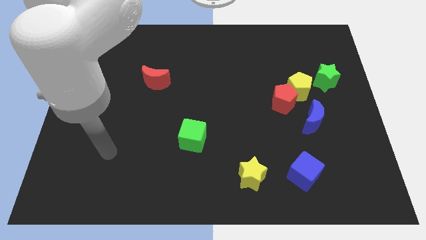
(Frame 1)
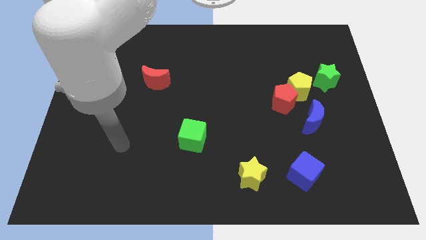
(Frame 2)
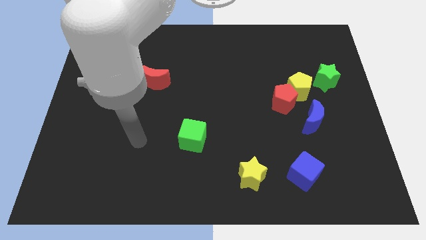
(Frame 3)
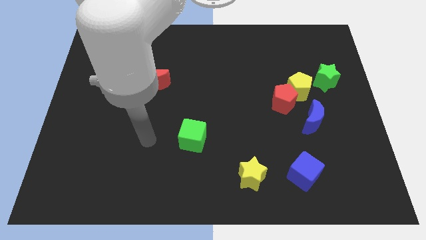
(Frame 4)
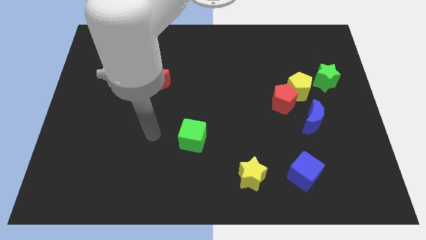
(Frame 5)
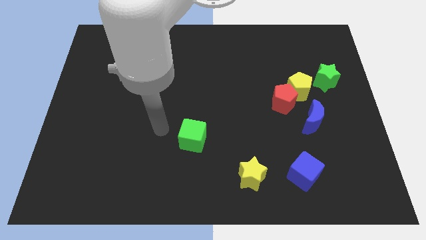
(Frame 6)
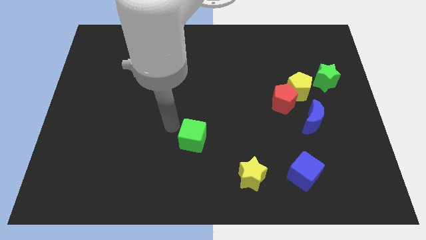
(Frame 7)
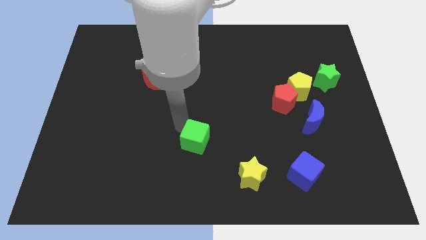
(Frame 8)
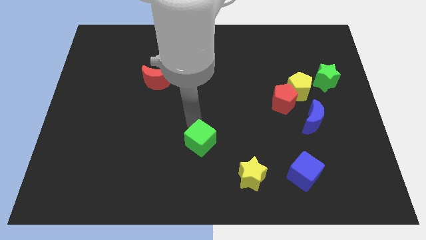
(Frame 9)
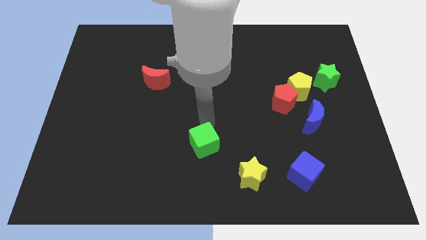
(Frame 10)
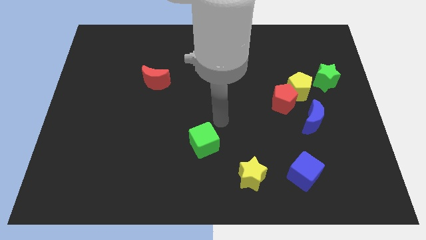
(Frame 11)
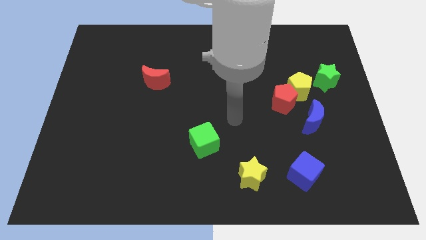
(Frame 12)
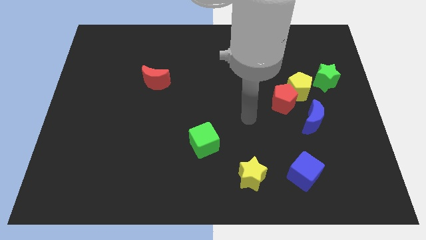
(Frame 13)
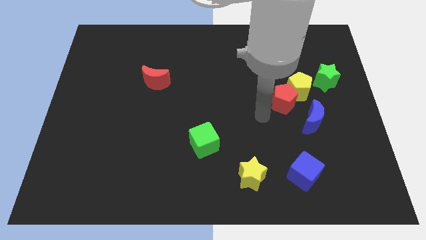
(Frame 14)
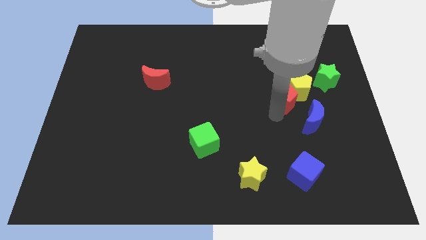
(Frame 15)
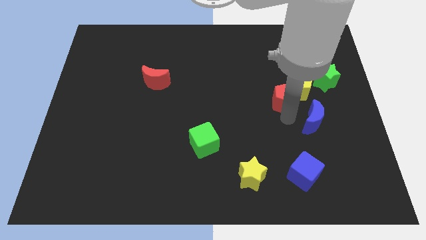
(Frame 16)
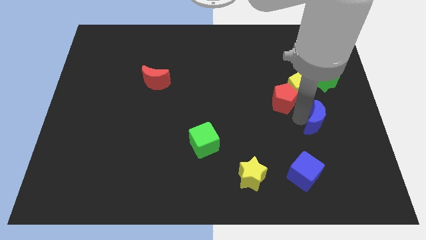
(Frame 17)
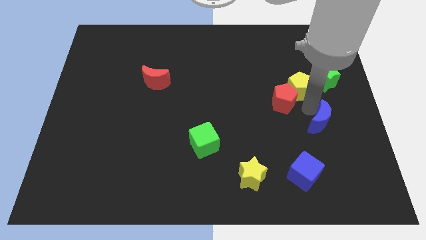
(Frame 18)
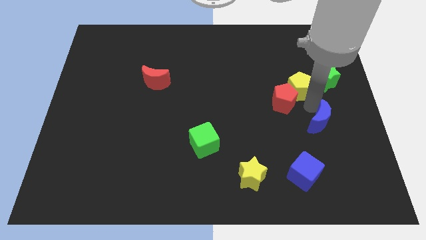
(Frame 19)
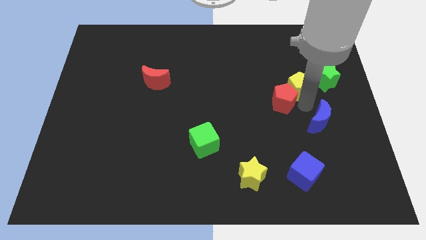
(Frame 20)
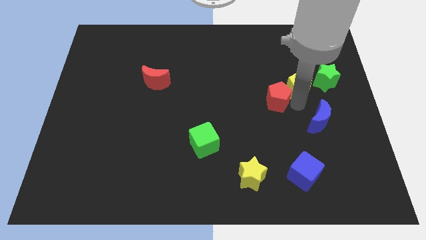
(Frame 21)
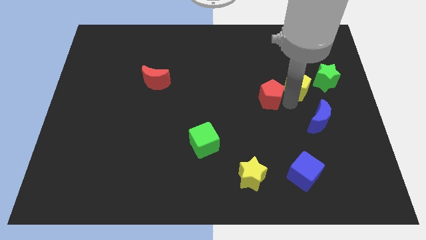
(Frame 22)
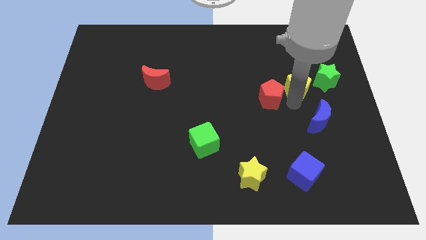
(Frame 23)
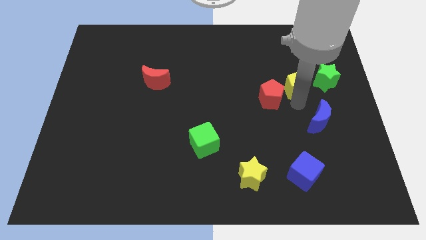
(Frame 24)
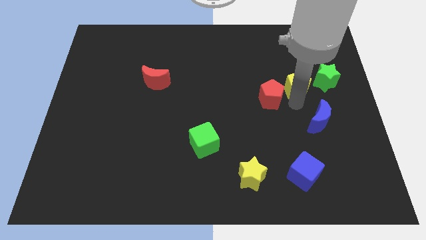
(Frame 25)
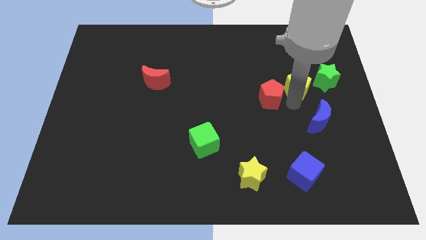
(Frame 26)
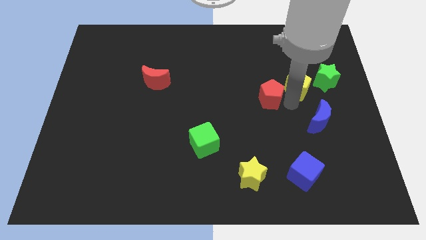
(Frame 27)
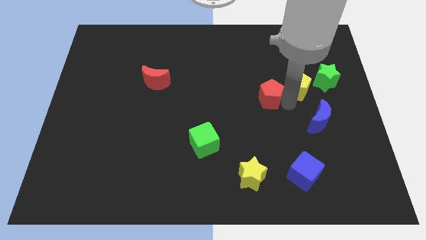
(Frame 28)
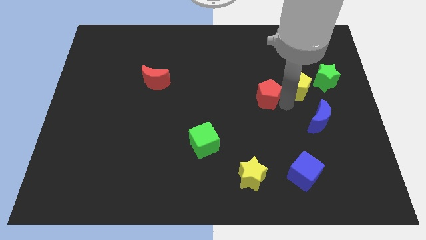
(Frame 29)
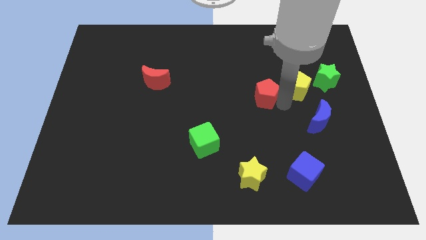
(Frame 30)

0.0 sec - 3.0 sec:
pull the red pentagon apart from the yellow pentagon and blue moon

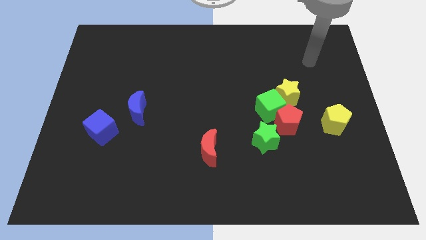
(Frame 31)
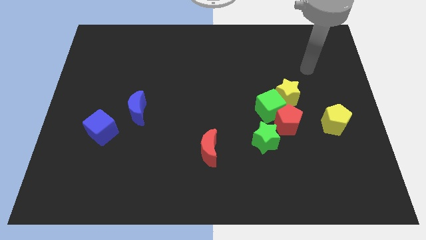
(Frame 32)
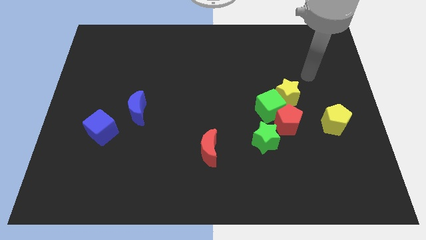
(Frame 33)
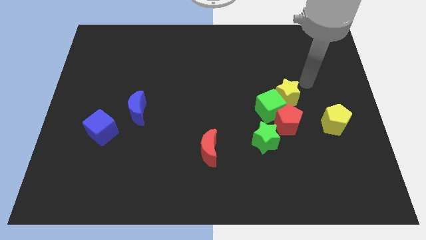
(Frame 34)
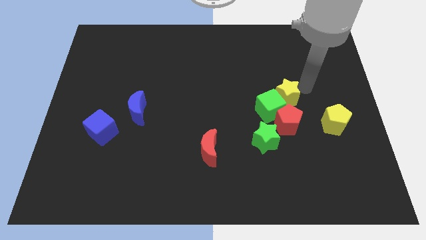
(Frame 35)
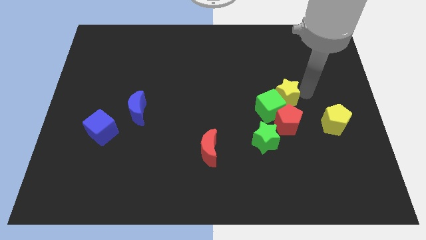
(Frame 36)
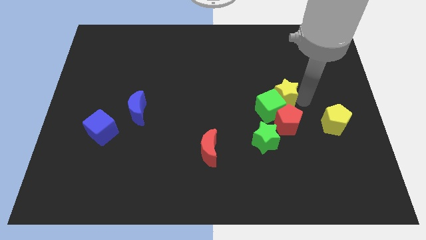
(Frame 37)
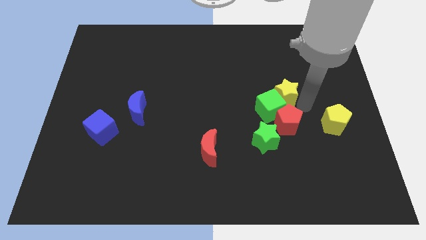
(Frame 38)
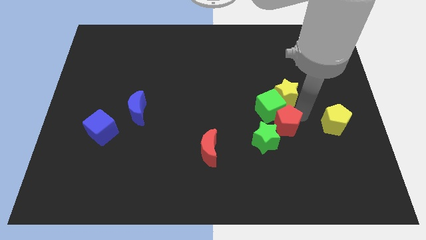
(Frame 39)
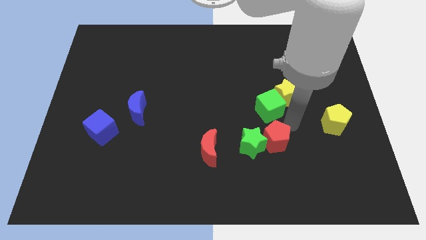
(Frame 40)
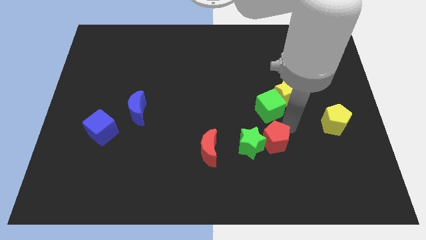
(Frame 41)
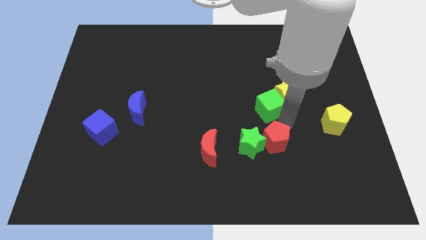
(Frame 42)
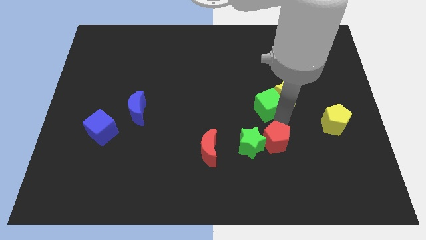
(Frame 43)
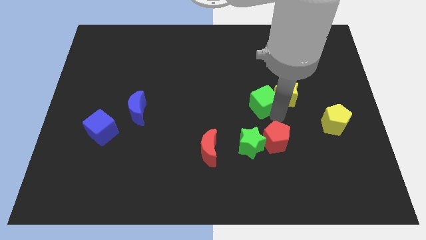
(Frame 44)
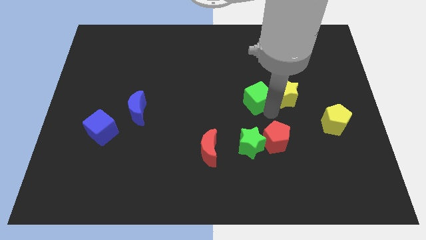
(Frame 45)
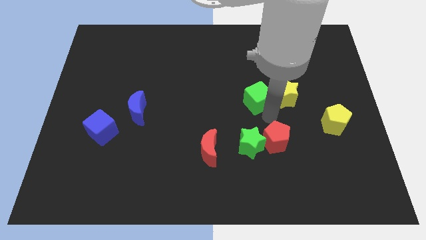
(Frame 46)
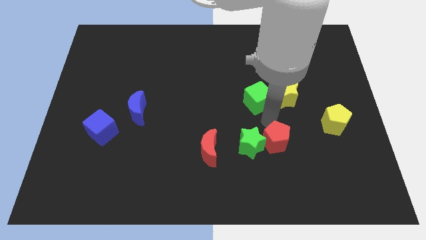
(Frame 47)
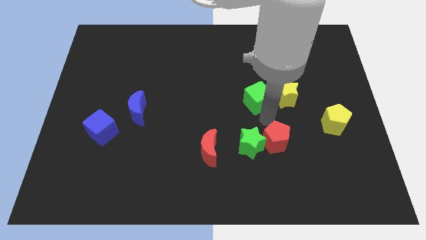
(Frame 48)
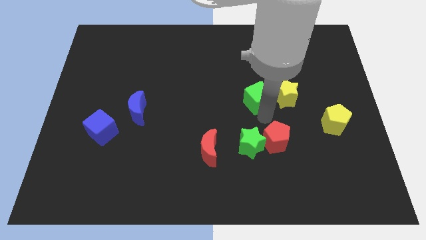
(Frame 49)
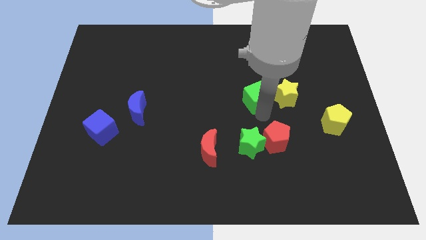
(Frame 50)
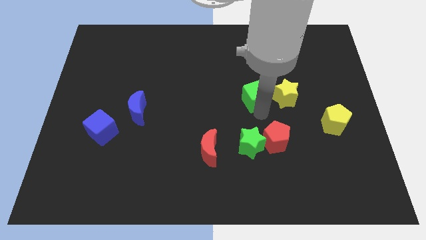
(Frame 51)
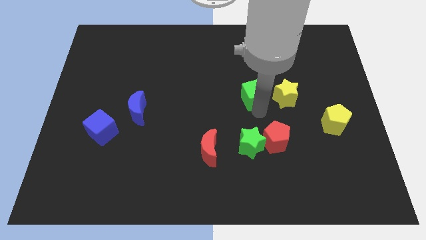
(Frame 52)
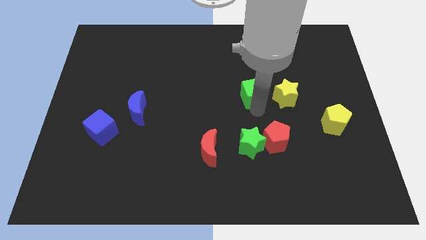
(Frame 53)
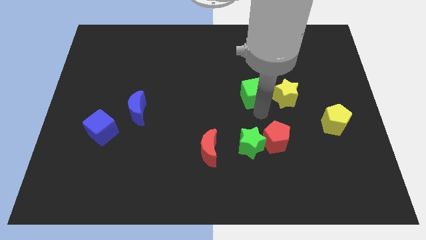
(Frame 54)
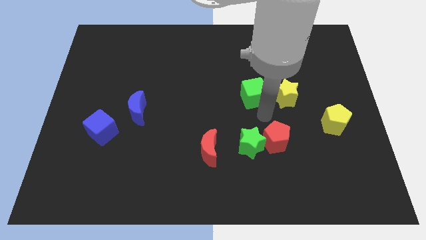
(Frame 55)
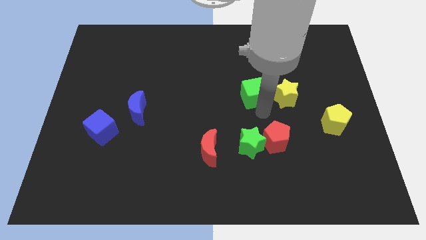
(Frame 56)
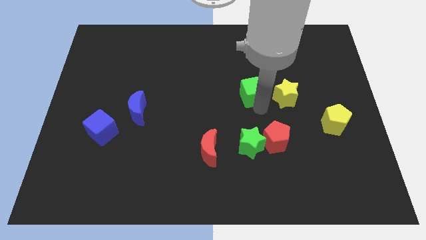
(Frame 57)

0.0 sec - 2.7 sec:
pull the green cube apart from the clump

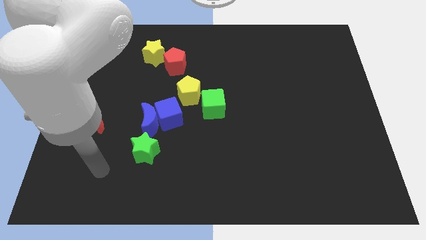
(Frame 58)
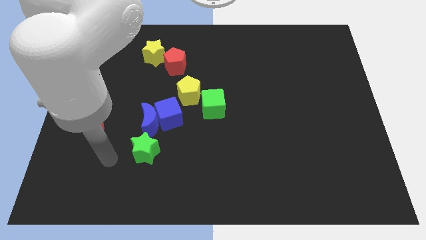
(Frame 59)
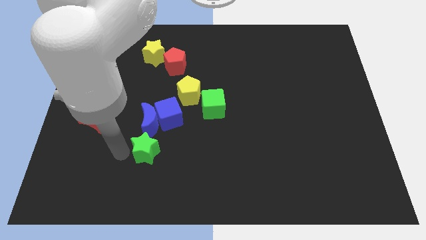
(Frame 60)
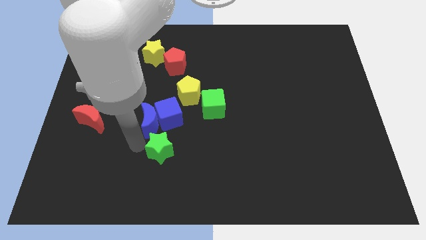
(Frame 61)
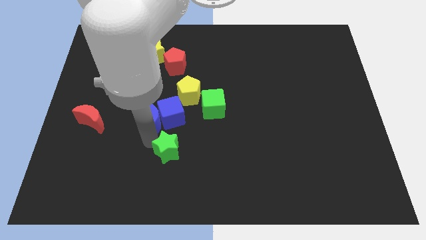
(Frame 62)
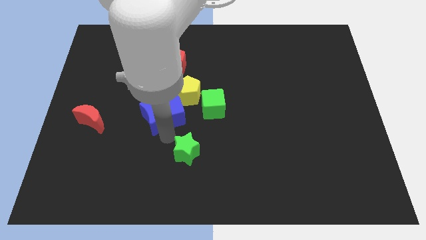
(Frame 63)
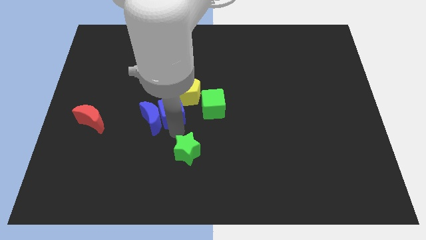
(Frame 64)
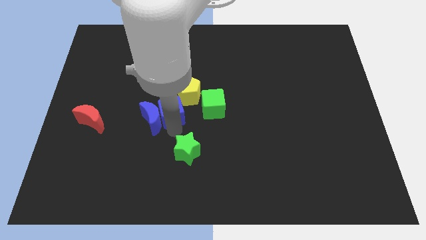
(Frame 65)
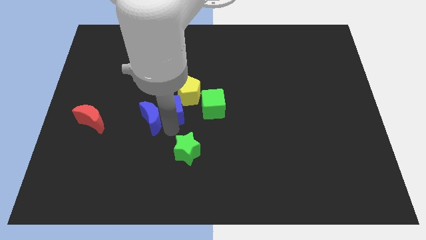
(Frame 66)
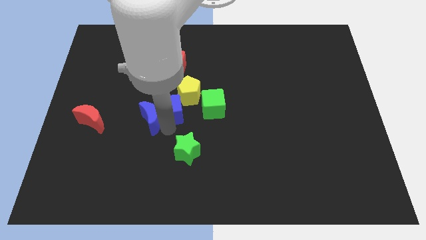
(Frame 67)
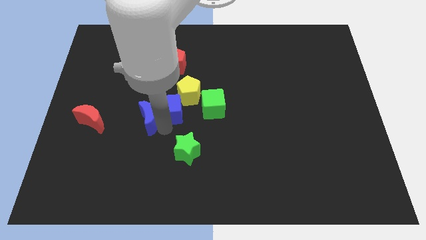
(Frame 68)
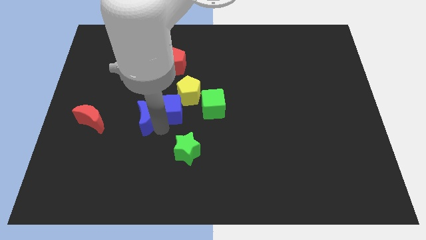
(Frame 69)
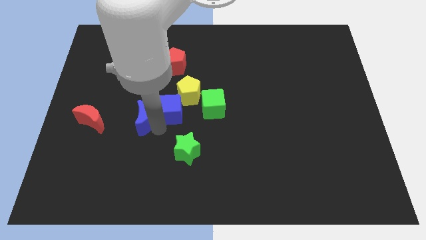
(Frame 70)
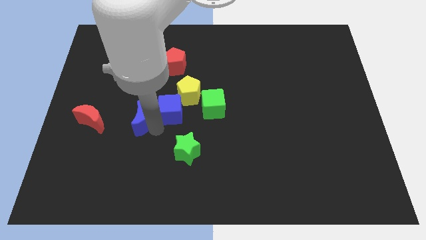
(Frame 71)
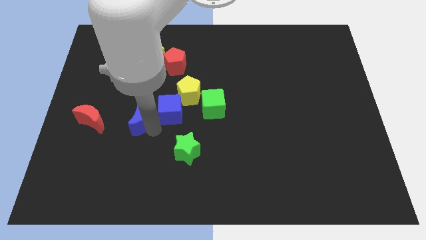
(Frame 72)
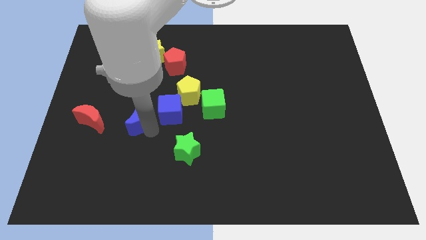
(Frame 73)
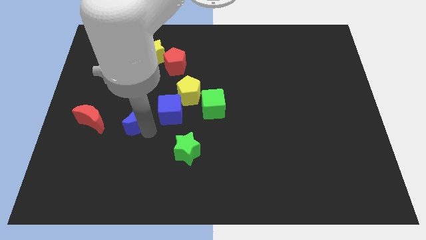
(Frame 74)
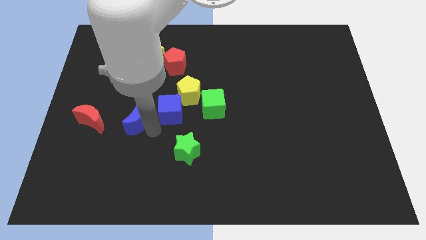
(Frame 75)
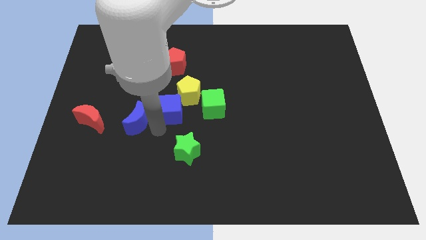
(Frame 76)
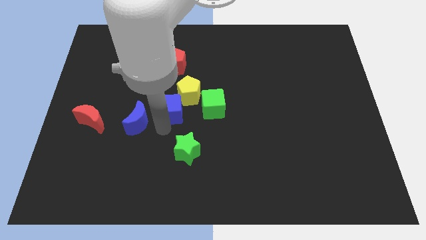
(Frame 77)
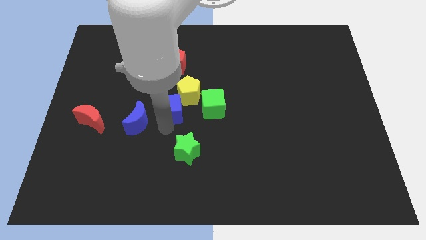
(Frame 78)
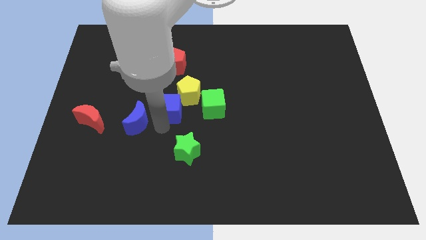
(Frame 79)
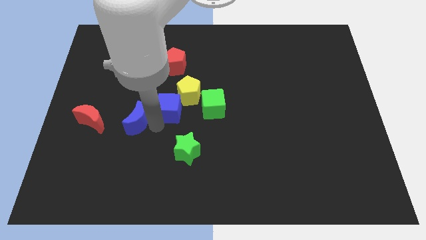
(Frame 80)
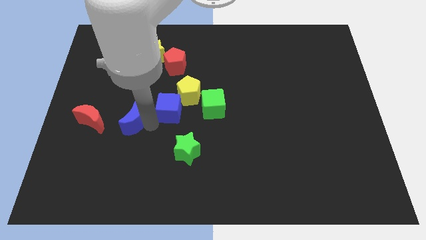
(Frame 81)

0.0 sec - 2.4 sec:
pull the blue moon apart from the blue cube and green star

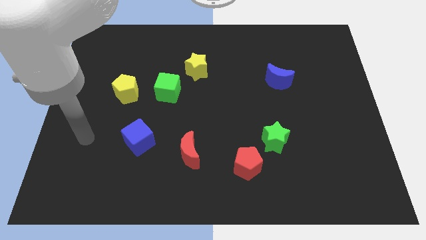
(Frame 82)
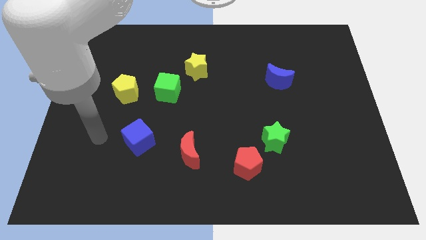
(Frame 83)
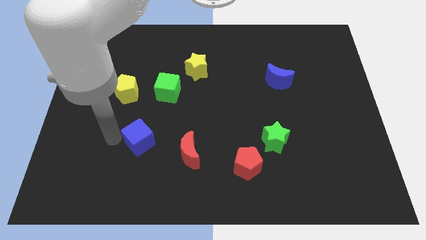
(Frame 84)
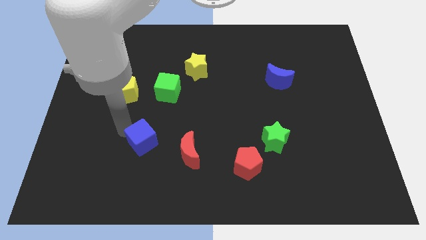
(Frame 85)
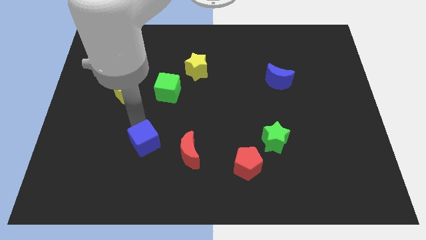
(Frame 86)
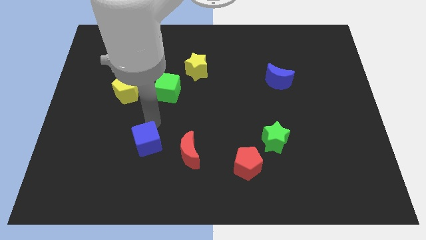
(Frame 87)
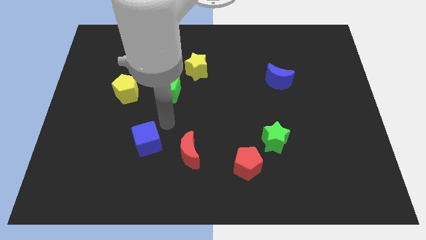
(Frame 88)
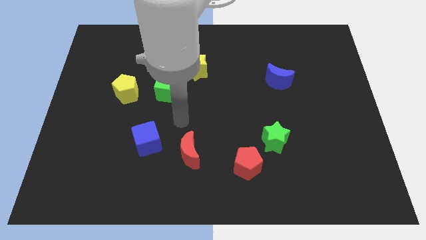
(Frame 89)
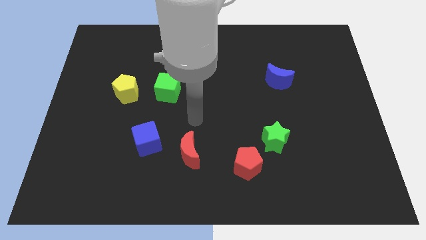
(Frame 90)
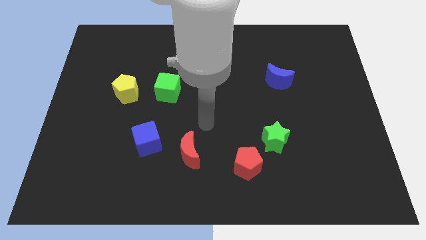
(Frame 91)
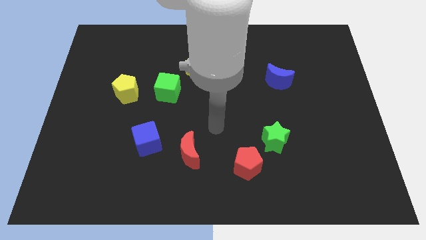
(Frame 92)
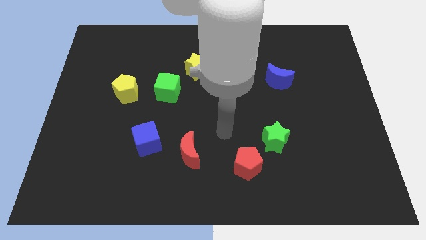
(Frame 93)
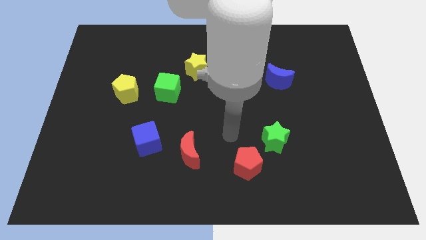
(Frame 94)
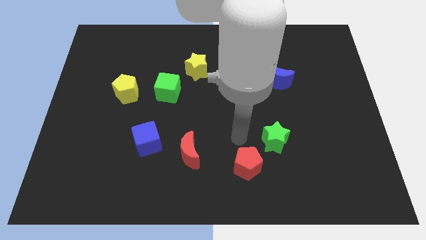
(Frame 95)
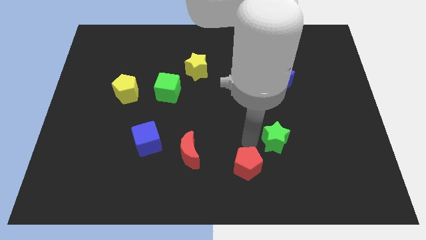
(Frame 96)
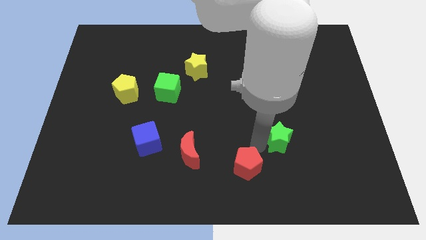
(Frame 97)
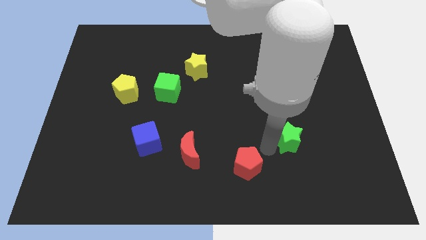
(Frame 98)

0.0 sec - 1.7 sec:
pull the red pentagon apart from the green star
